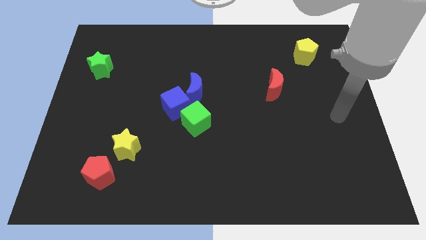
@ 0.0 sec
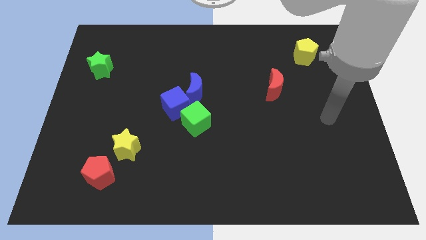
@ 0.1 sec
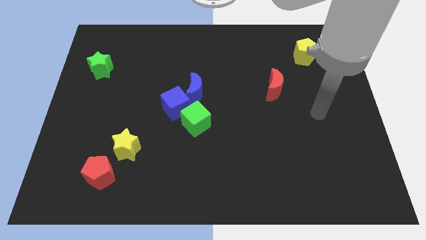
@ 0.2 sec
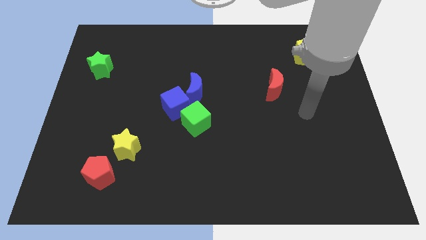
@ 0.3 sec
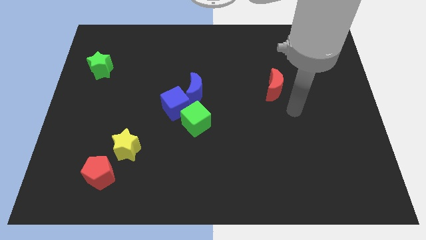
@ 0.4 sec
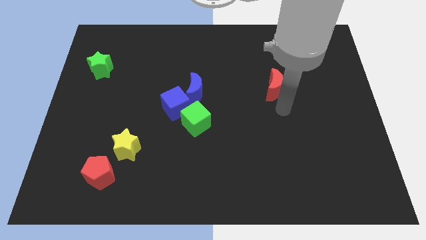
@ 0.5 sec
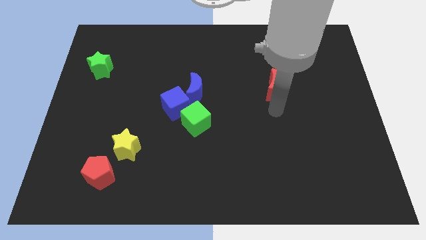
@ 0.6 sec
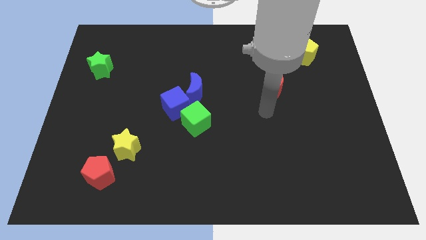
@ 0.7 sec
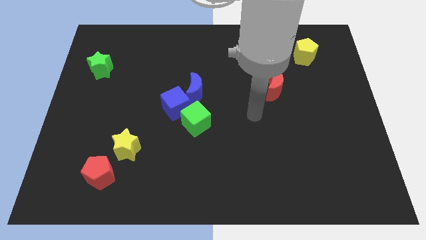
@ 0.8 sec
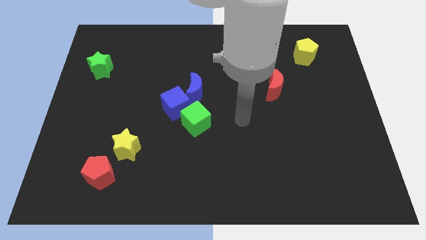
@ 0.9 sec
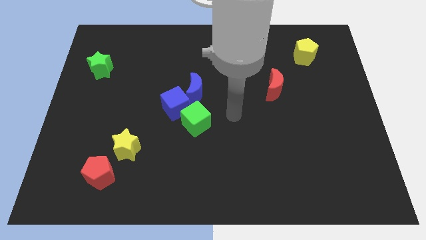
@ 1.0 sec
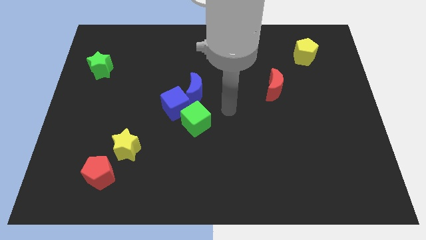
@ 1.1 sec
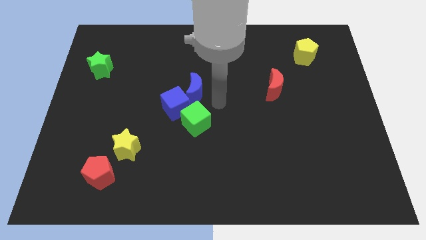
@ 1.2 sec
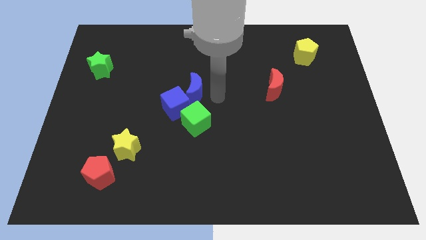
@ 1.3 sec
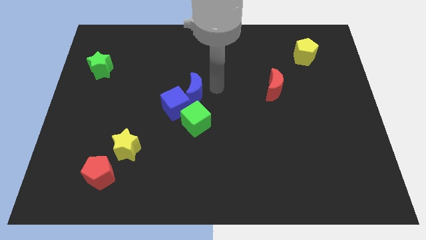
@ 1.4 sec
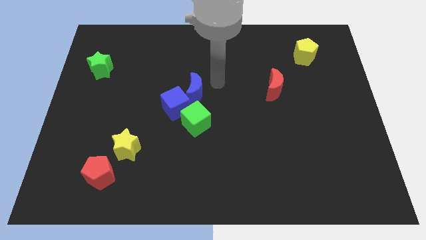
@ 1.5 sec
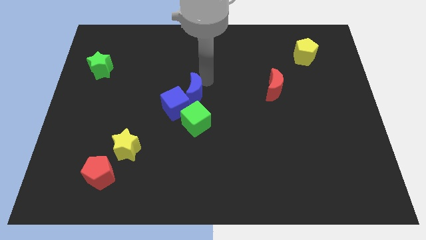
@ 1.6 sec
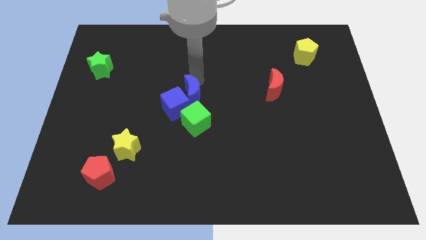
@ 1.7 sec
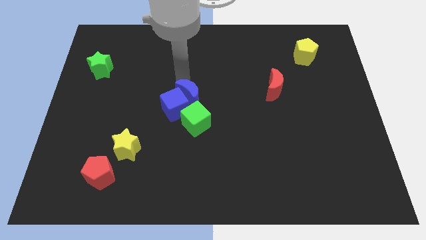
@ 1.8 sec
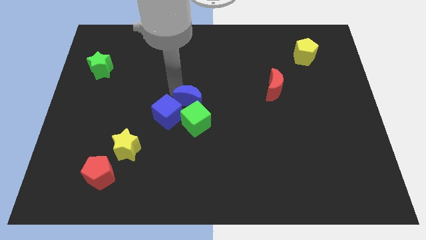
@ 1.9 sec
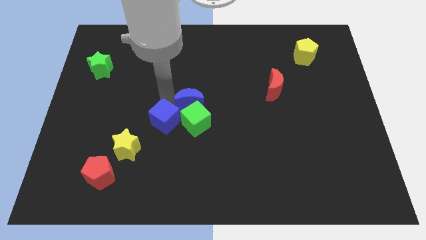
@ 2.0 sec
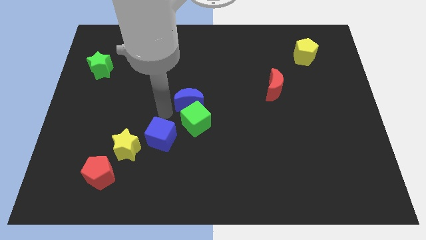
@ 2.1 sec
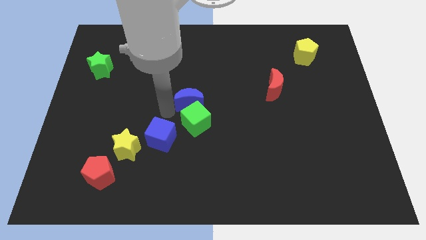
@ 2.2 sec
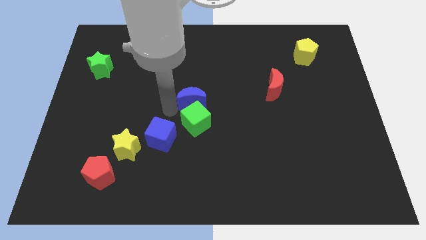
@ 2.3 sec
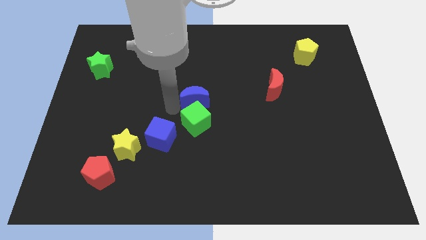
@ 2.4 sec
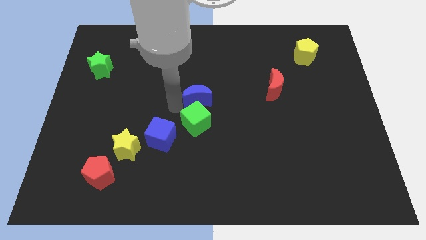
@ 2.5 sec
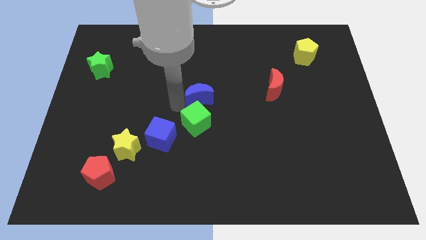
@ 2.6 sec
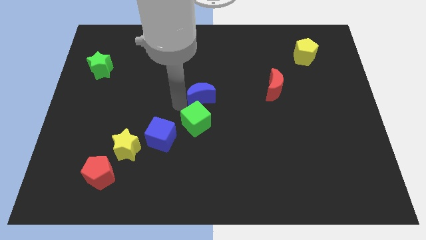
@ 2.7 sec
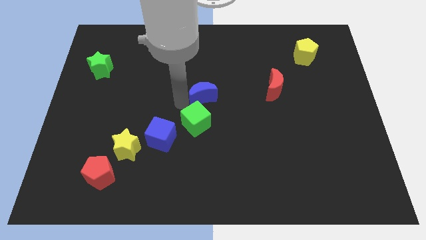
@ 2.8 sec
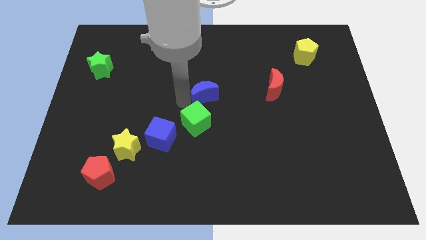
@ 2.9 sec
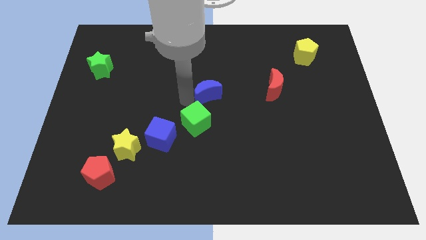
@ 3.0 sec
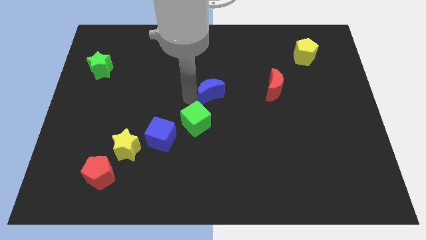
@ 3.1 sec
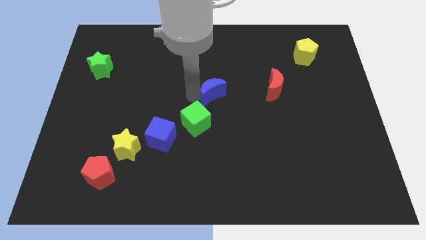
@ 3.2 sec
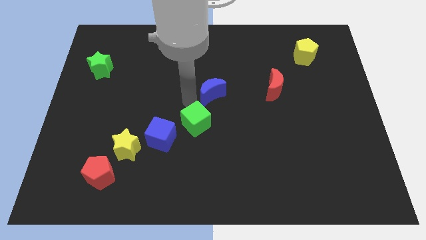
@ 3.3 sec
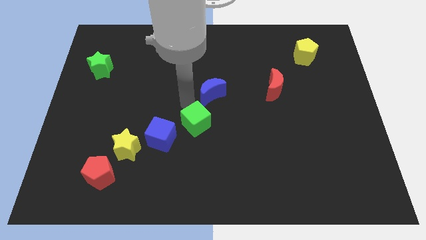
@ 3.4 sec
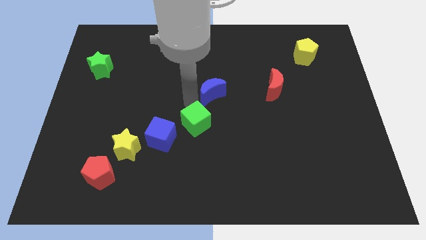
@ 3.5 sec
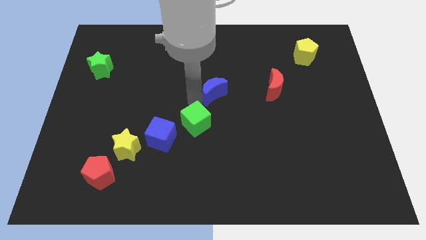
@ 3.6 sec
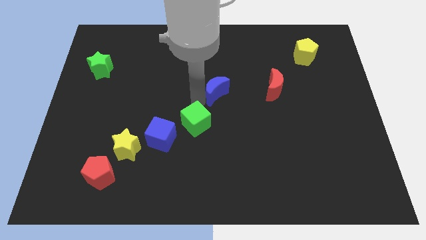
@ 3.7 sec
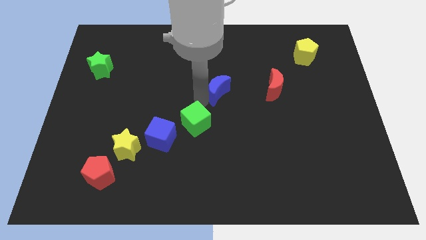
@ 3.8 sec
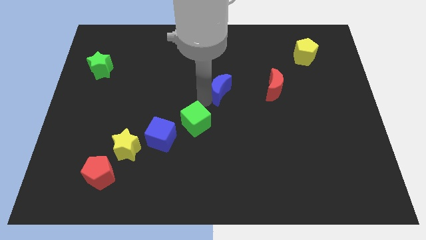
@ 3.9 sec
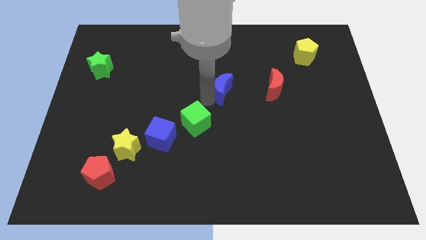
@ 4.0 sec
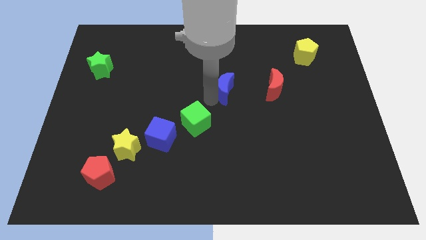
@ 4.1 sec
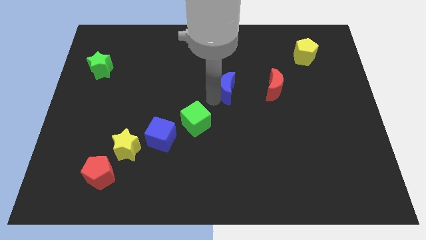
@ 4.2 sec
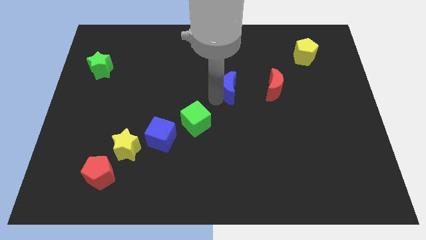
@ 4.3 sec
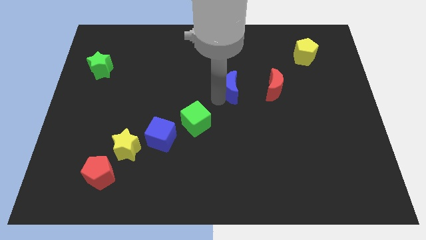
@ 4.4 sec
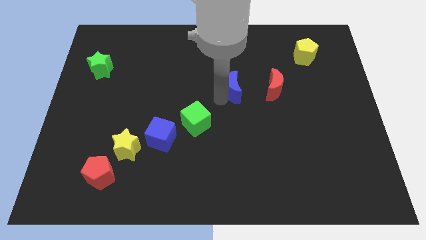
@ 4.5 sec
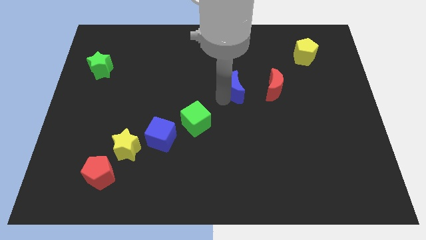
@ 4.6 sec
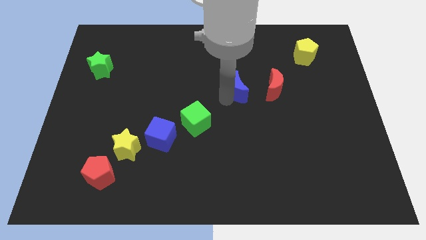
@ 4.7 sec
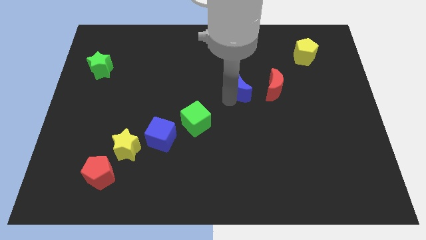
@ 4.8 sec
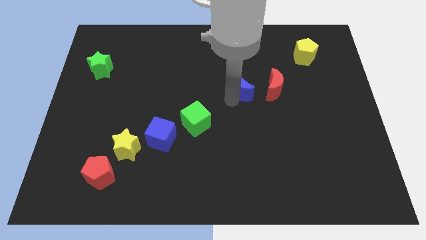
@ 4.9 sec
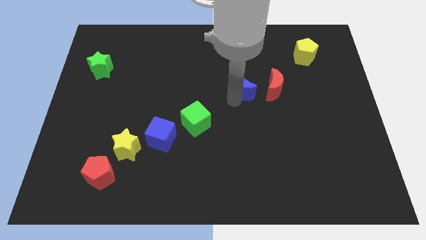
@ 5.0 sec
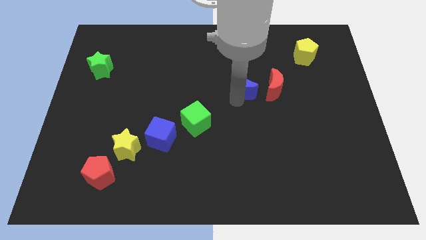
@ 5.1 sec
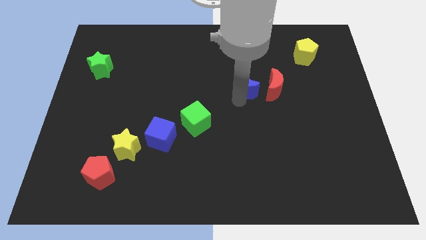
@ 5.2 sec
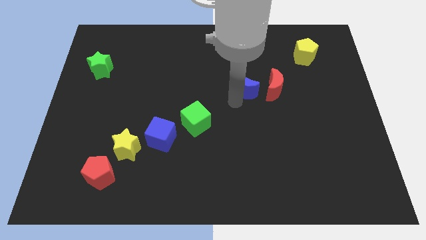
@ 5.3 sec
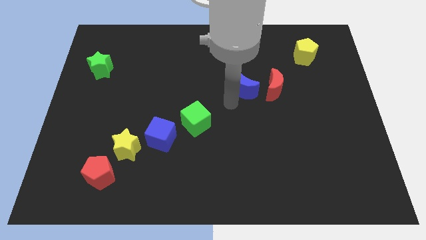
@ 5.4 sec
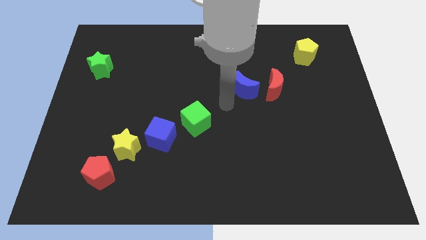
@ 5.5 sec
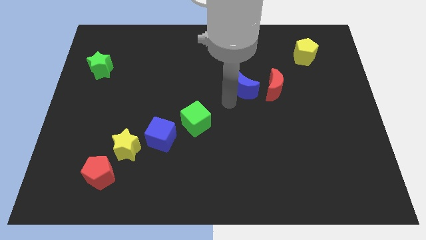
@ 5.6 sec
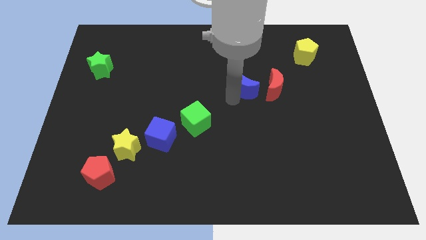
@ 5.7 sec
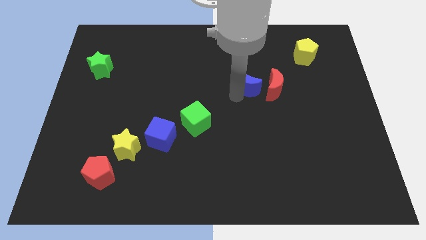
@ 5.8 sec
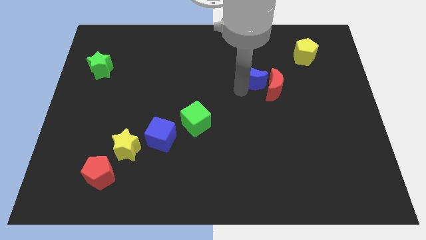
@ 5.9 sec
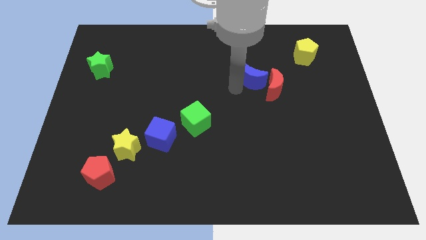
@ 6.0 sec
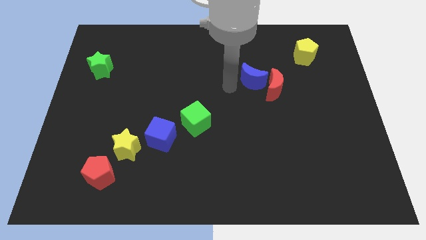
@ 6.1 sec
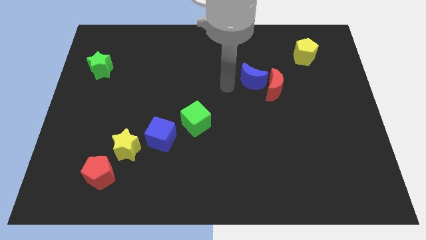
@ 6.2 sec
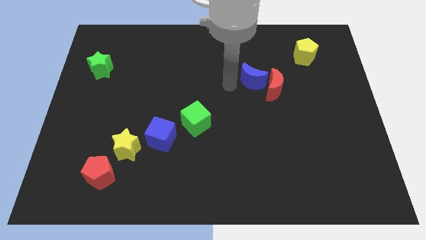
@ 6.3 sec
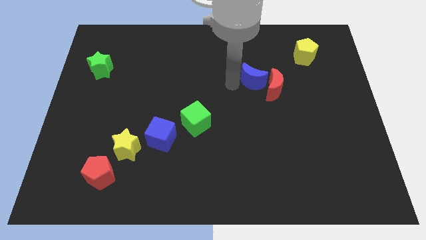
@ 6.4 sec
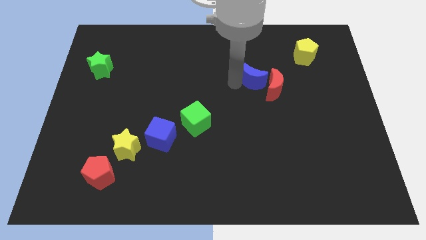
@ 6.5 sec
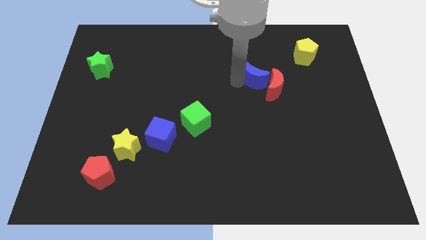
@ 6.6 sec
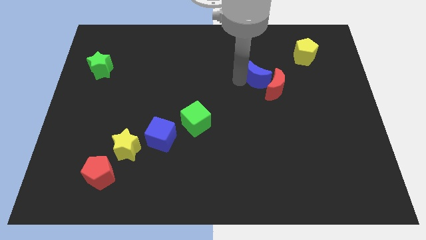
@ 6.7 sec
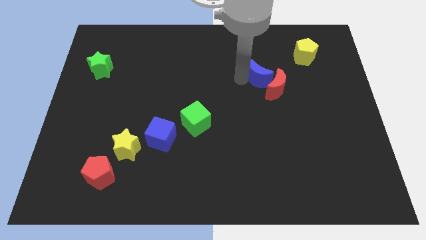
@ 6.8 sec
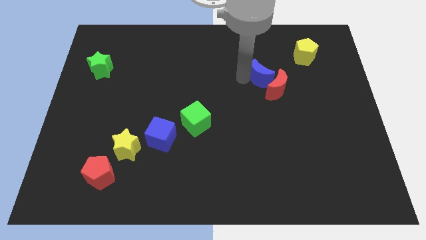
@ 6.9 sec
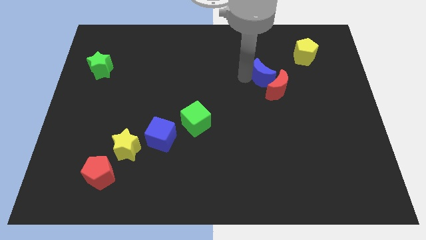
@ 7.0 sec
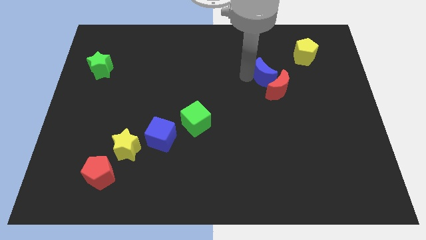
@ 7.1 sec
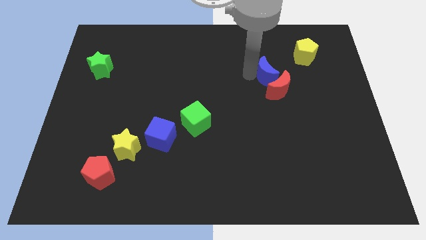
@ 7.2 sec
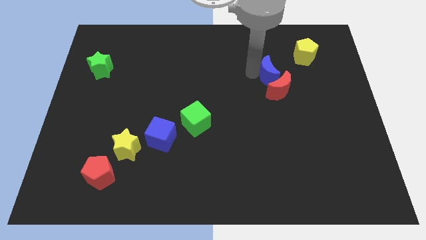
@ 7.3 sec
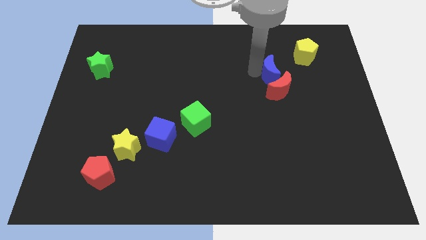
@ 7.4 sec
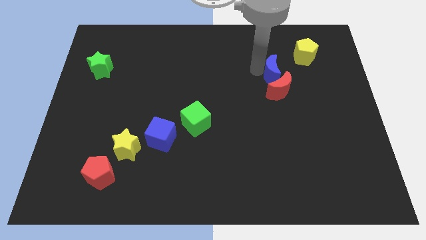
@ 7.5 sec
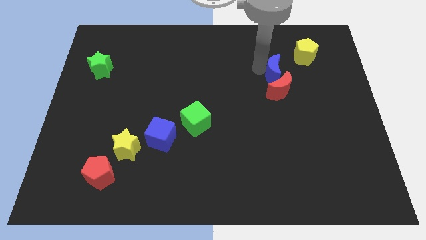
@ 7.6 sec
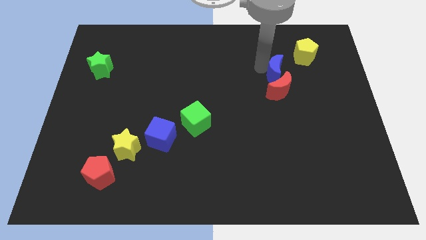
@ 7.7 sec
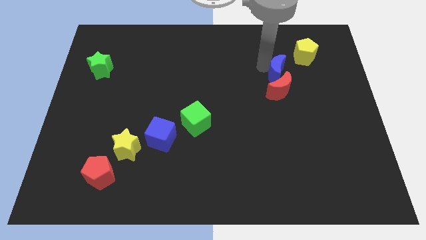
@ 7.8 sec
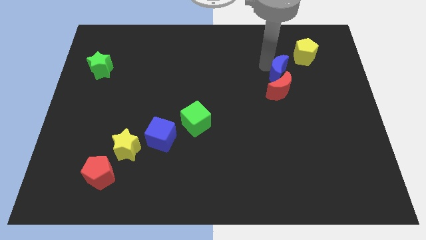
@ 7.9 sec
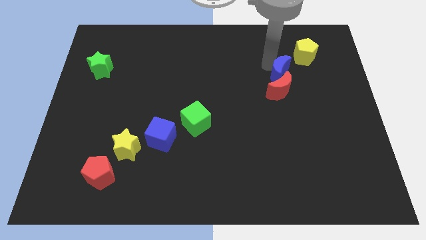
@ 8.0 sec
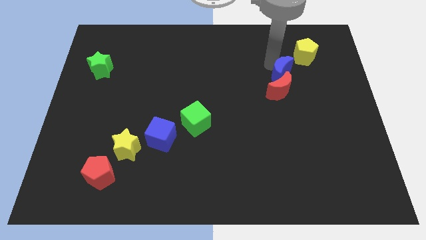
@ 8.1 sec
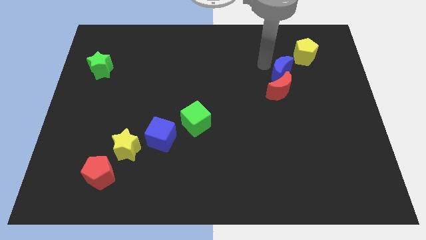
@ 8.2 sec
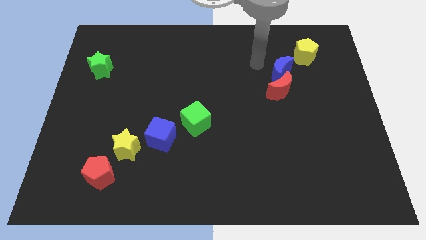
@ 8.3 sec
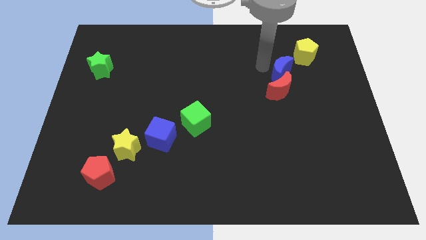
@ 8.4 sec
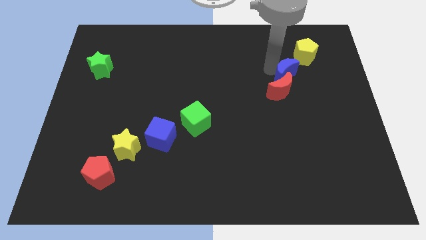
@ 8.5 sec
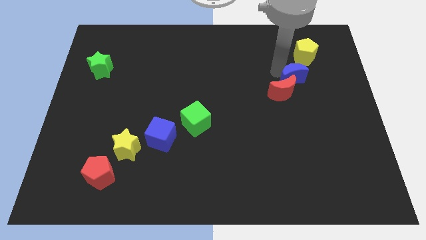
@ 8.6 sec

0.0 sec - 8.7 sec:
push the blue moon below the yellow pentagon
